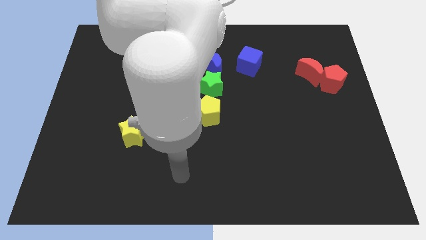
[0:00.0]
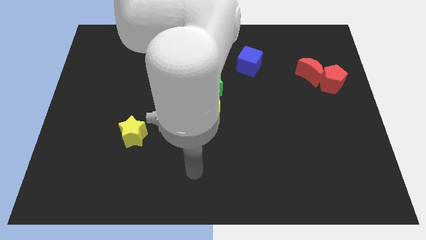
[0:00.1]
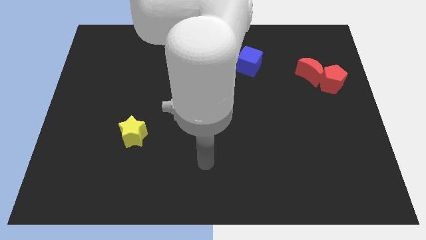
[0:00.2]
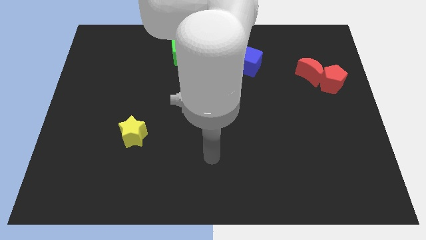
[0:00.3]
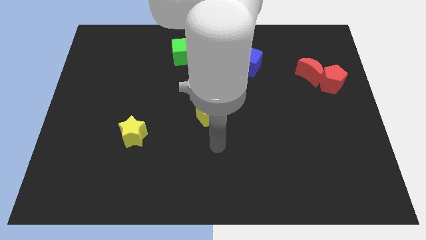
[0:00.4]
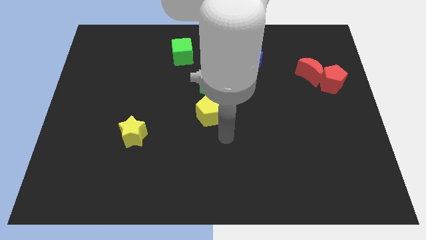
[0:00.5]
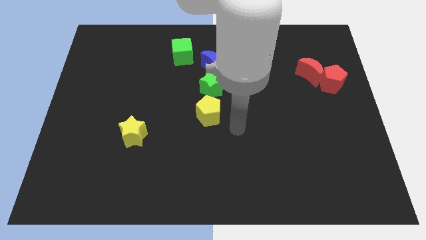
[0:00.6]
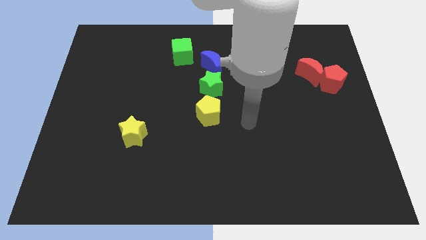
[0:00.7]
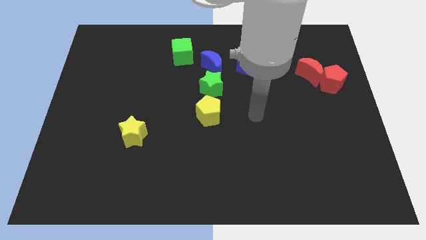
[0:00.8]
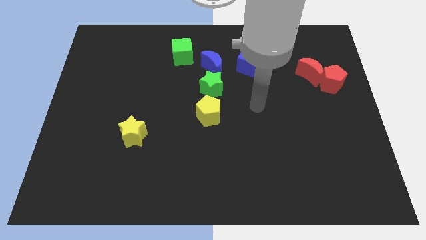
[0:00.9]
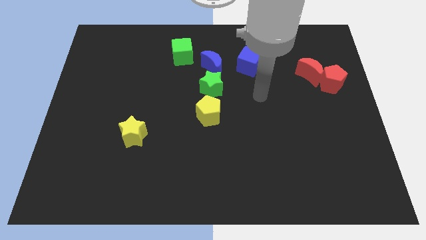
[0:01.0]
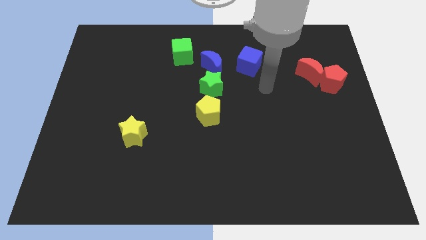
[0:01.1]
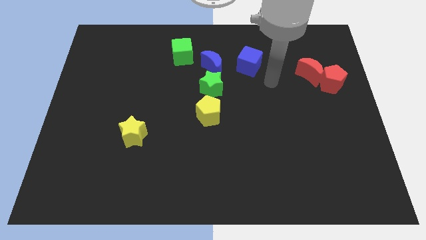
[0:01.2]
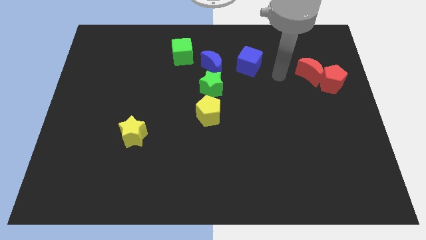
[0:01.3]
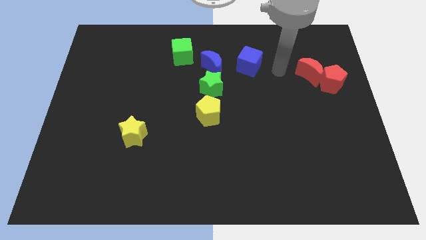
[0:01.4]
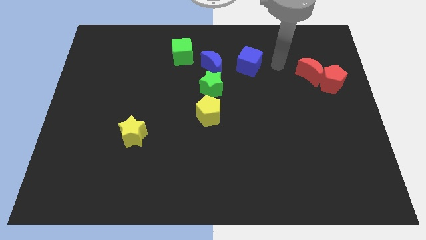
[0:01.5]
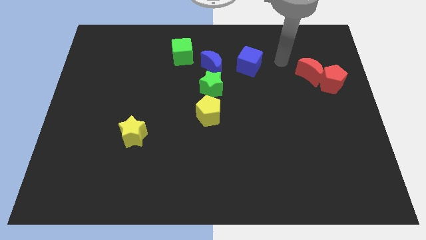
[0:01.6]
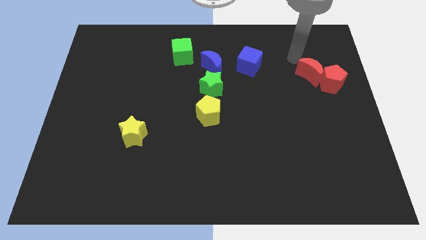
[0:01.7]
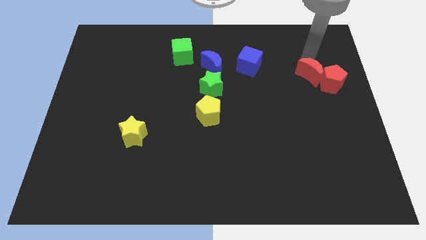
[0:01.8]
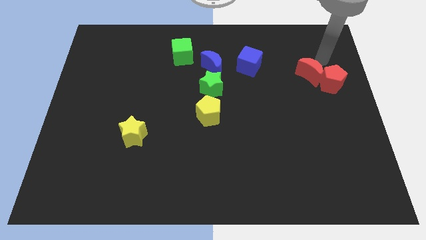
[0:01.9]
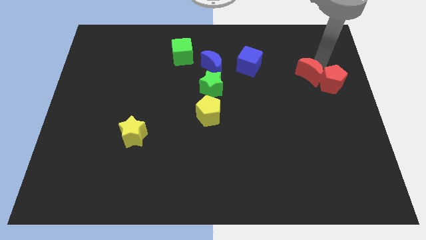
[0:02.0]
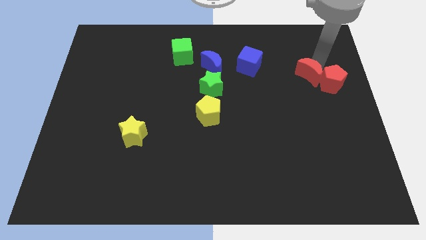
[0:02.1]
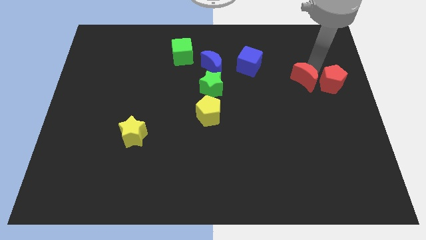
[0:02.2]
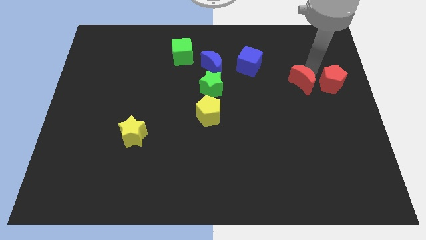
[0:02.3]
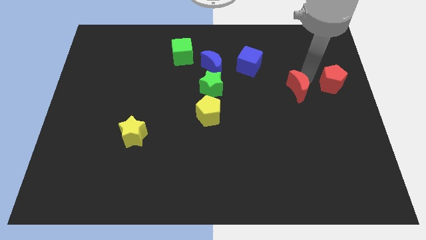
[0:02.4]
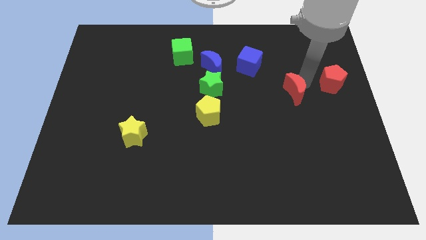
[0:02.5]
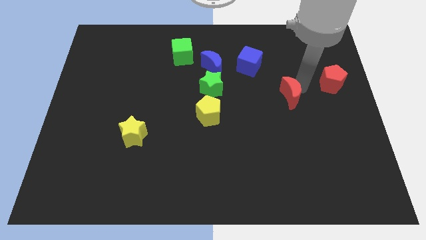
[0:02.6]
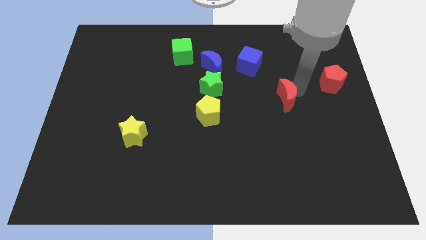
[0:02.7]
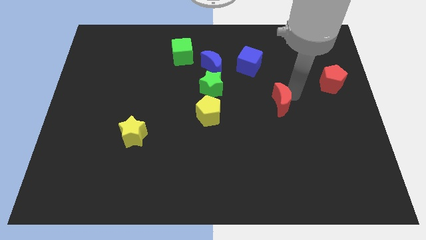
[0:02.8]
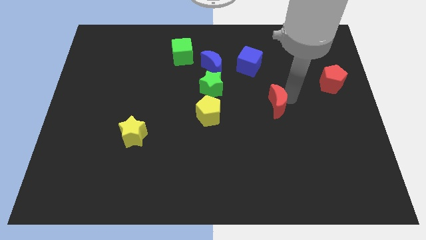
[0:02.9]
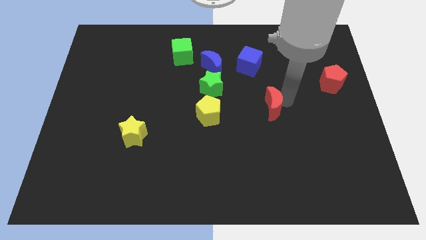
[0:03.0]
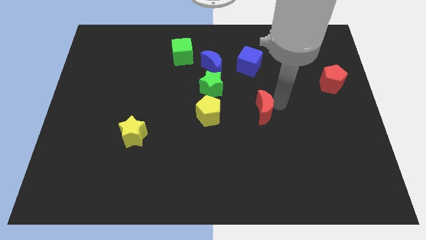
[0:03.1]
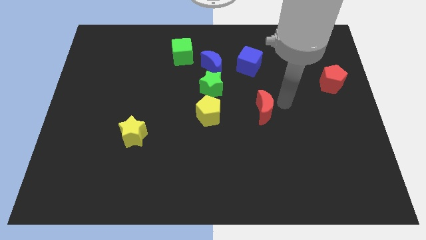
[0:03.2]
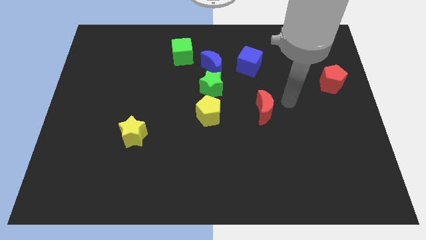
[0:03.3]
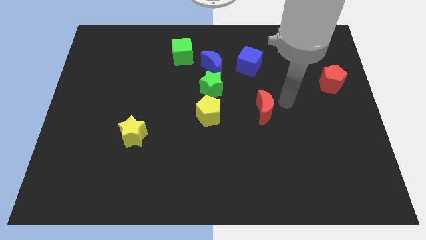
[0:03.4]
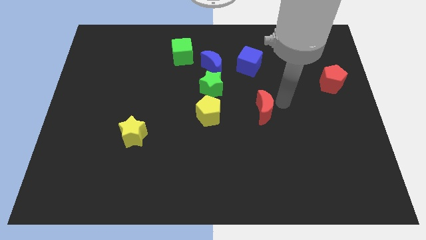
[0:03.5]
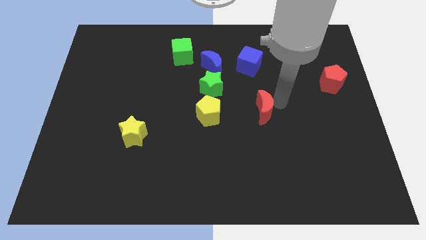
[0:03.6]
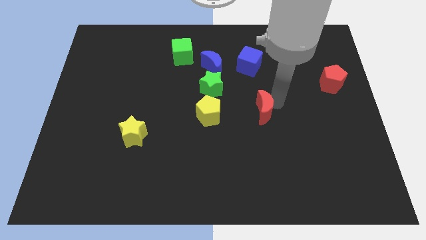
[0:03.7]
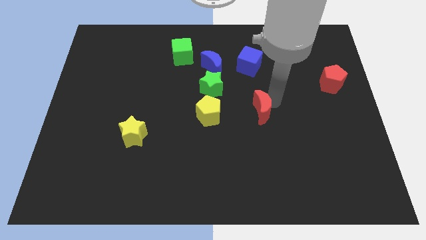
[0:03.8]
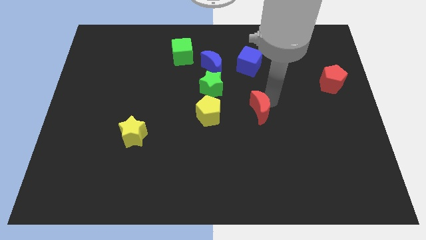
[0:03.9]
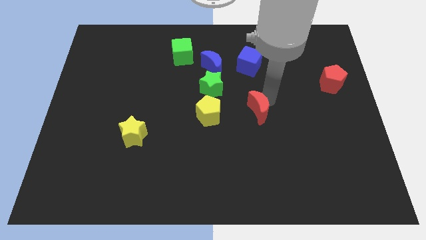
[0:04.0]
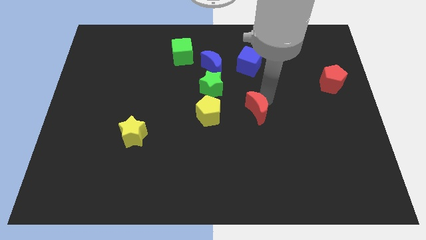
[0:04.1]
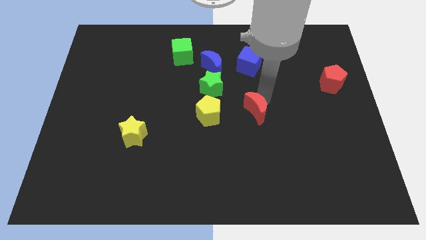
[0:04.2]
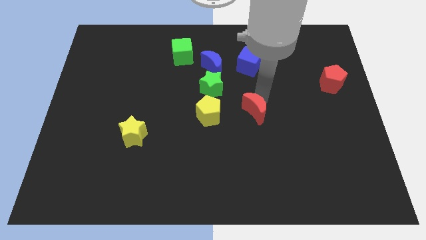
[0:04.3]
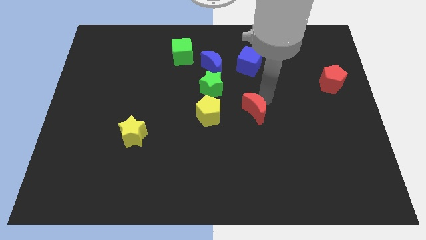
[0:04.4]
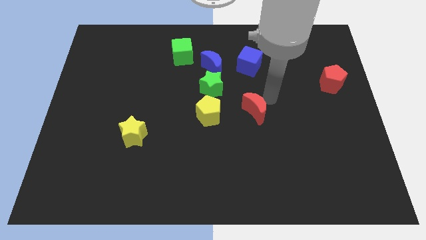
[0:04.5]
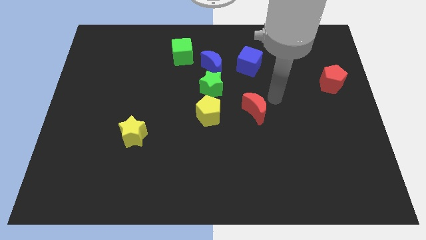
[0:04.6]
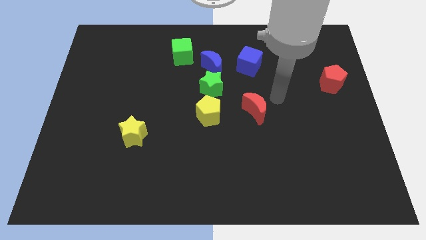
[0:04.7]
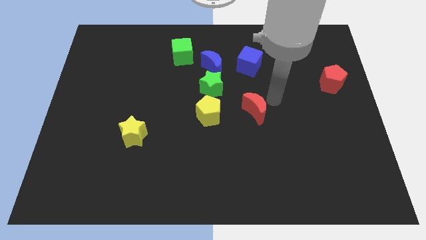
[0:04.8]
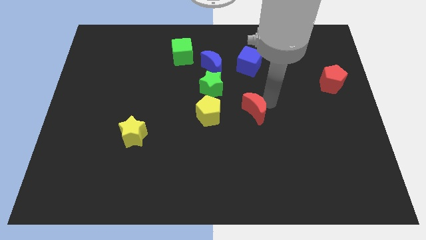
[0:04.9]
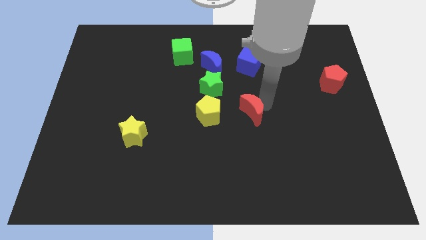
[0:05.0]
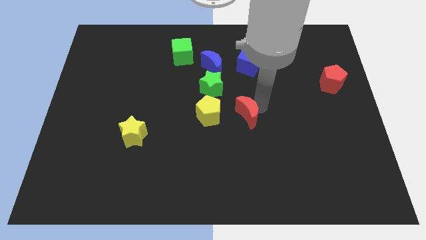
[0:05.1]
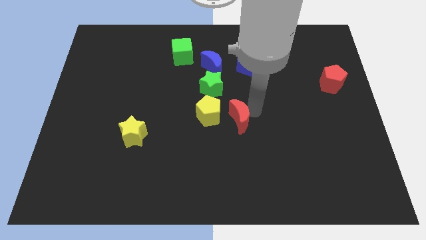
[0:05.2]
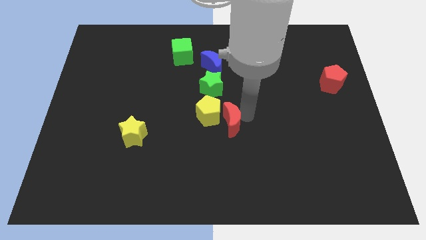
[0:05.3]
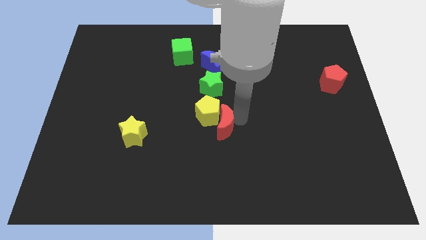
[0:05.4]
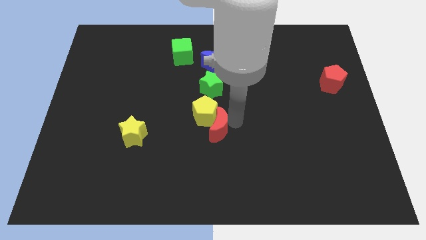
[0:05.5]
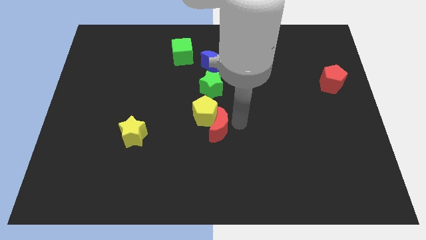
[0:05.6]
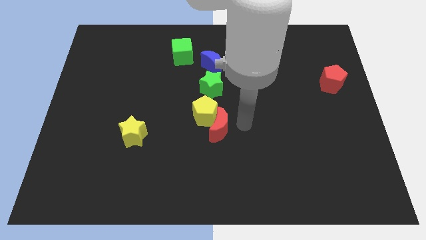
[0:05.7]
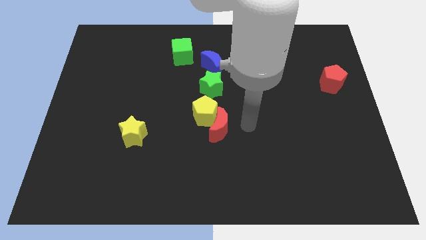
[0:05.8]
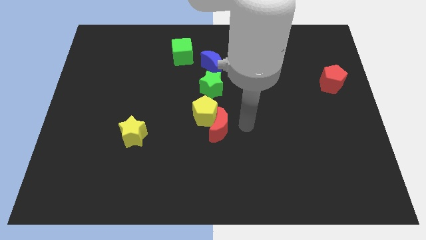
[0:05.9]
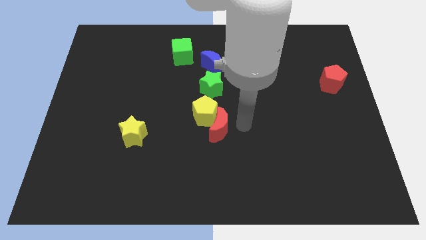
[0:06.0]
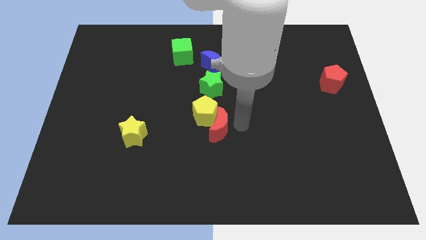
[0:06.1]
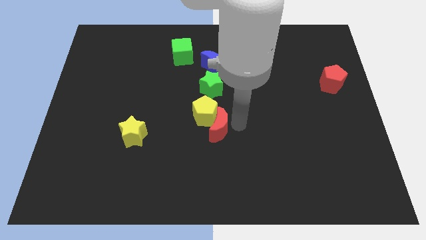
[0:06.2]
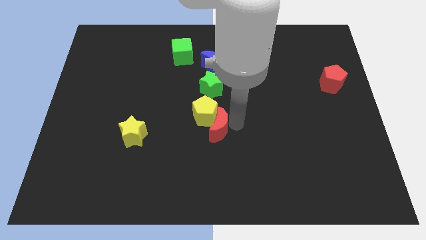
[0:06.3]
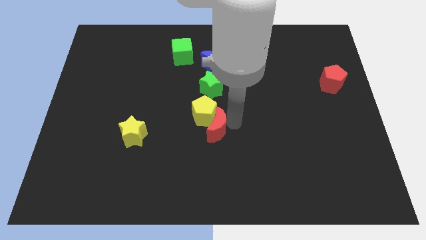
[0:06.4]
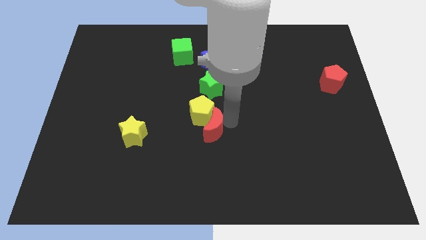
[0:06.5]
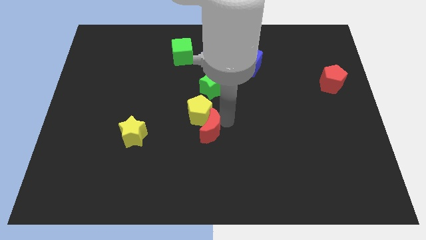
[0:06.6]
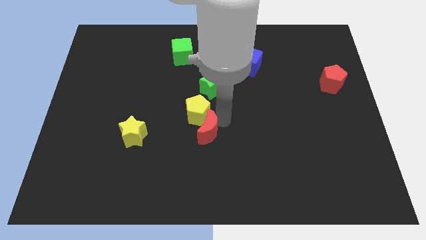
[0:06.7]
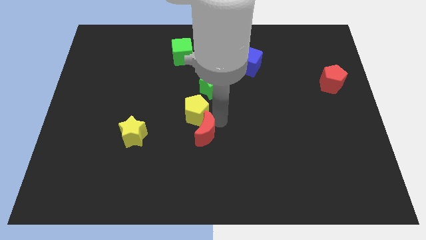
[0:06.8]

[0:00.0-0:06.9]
put the red moon to the right of the yellow star
